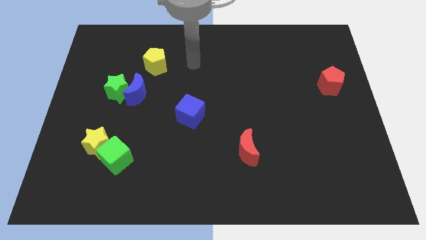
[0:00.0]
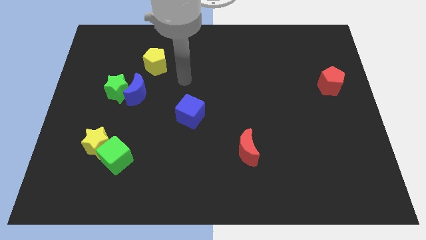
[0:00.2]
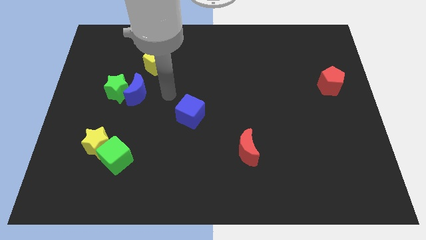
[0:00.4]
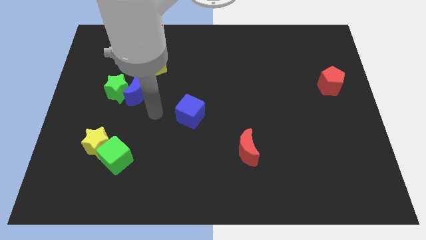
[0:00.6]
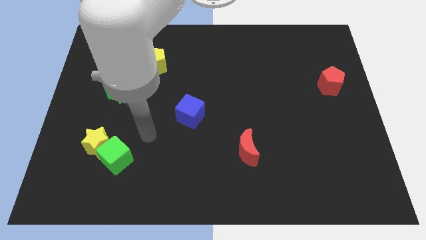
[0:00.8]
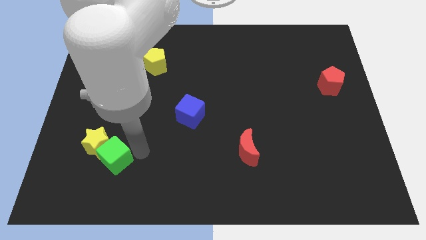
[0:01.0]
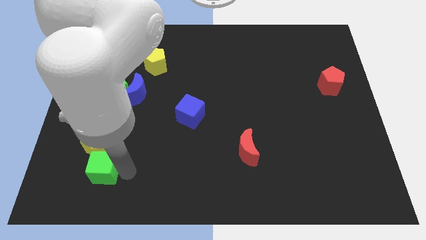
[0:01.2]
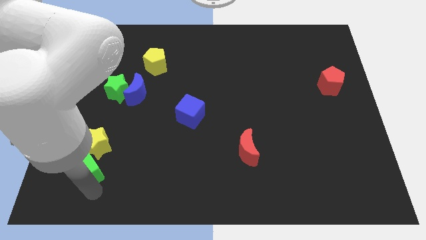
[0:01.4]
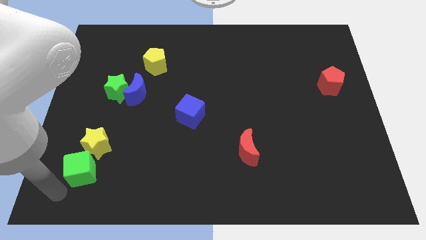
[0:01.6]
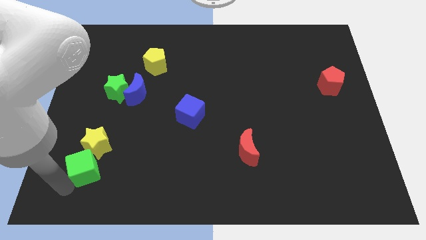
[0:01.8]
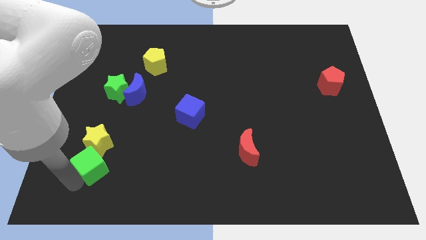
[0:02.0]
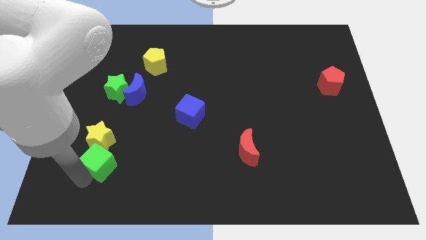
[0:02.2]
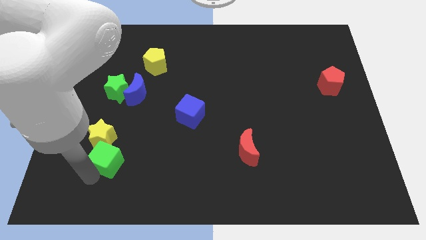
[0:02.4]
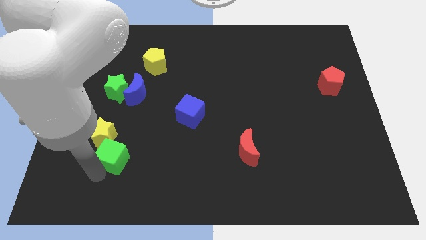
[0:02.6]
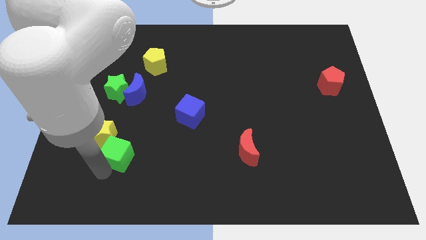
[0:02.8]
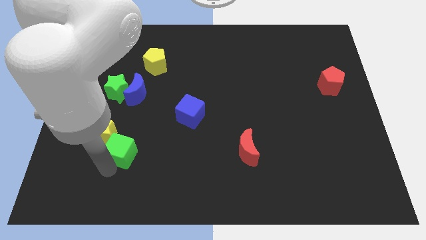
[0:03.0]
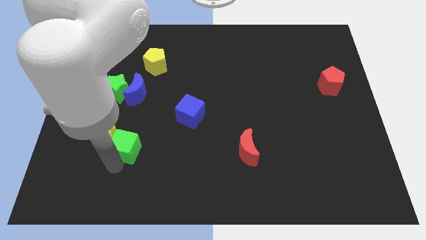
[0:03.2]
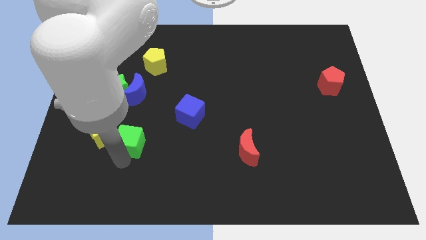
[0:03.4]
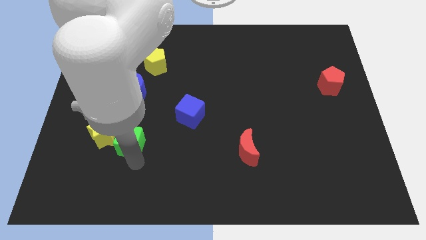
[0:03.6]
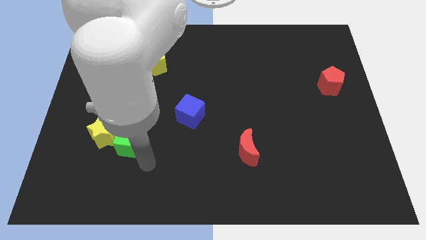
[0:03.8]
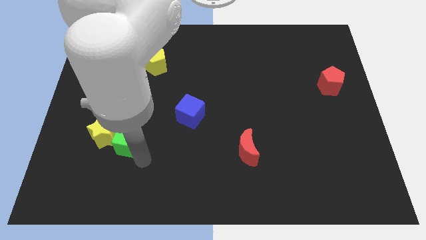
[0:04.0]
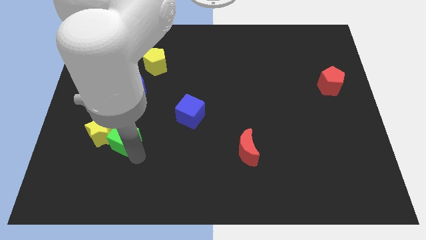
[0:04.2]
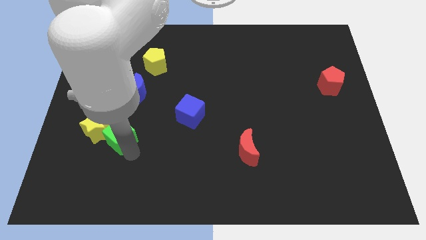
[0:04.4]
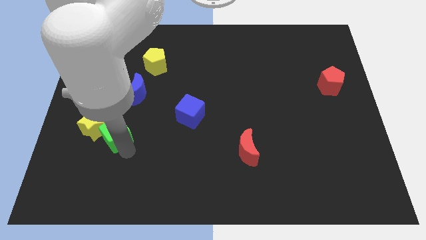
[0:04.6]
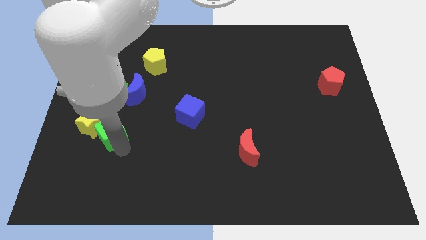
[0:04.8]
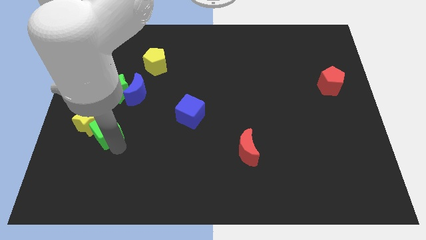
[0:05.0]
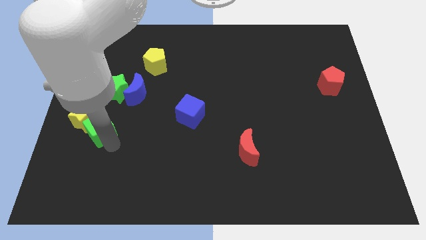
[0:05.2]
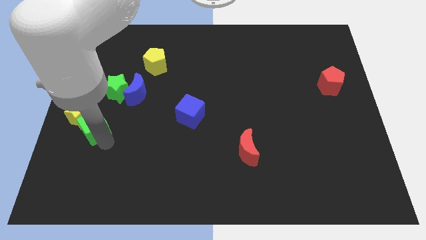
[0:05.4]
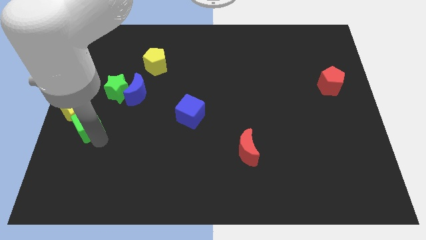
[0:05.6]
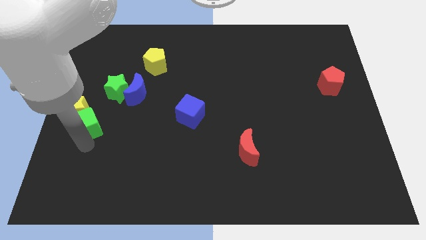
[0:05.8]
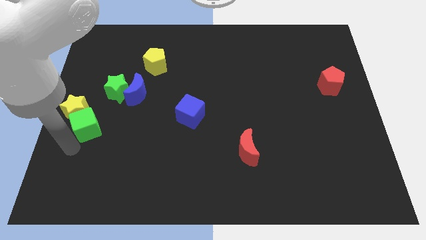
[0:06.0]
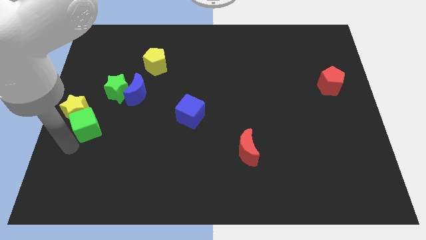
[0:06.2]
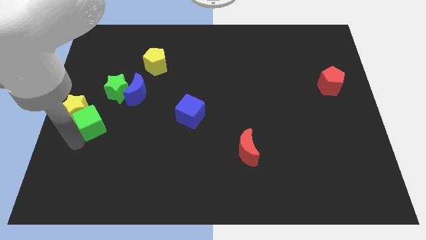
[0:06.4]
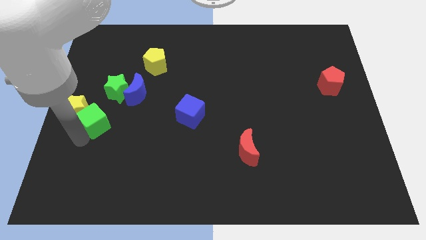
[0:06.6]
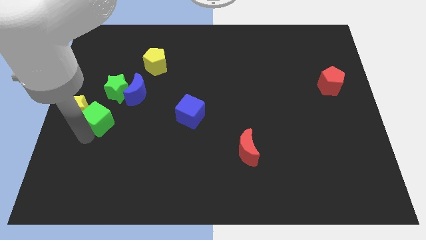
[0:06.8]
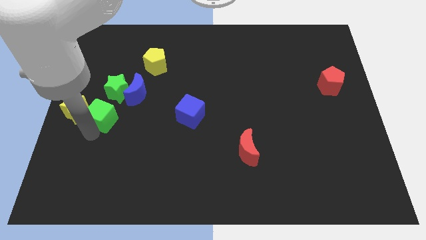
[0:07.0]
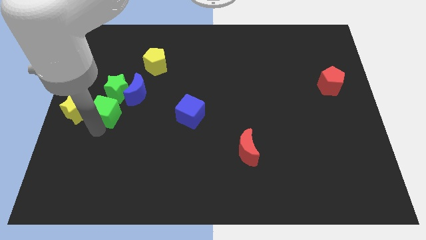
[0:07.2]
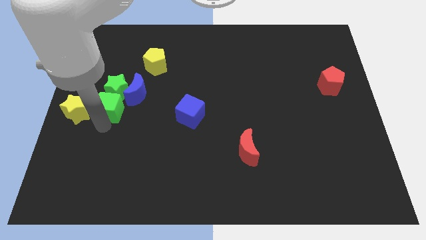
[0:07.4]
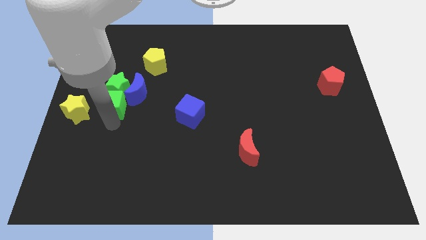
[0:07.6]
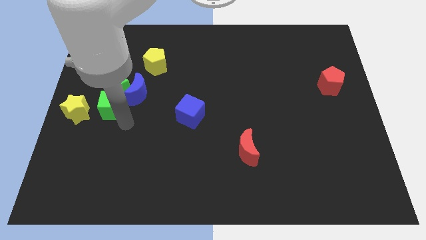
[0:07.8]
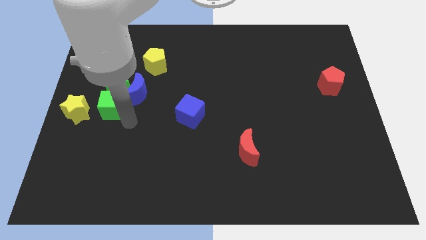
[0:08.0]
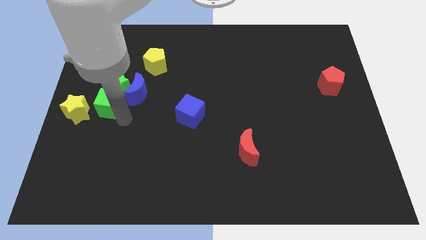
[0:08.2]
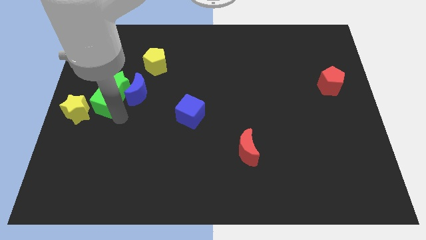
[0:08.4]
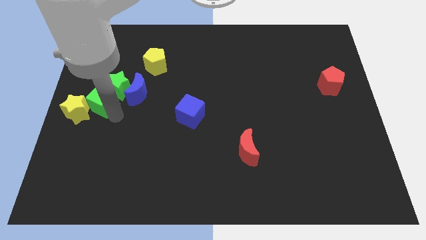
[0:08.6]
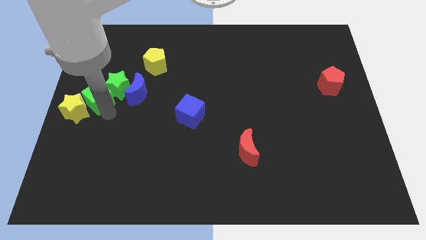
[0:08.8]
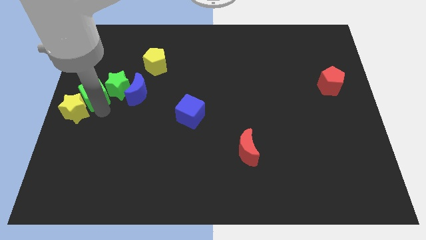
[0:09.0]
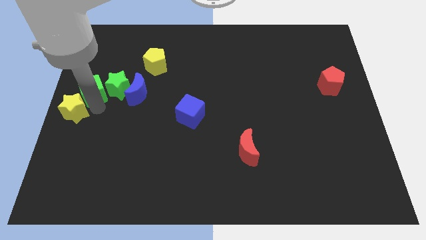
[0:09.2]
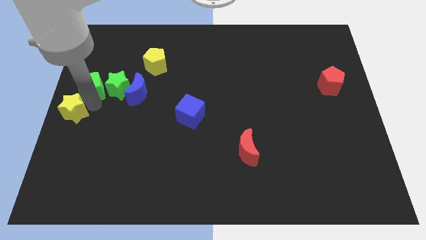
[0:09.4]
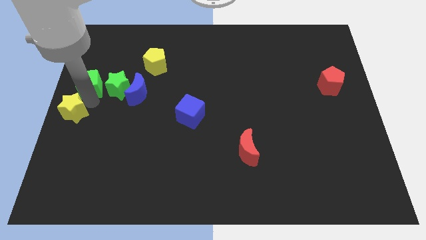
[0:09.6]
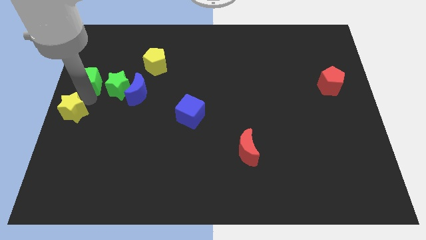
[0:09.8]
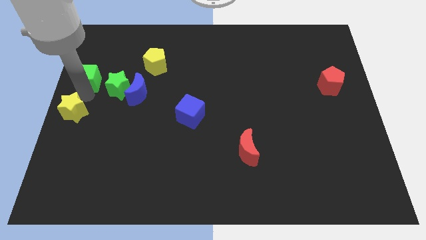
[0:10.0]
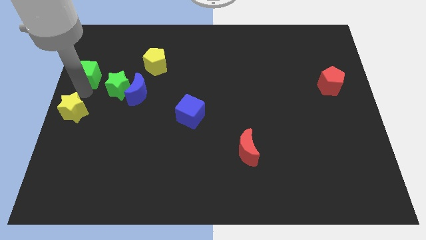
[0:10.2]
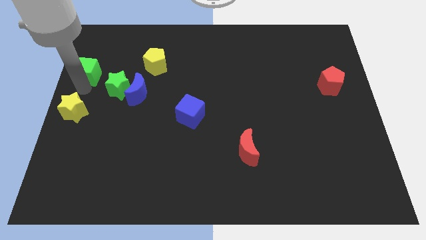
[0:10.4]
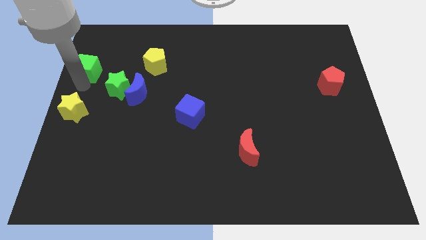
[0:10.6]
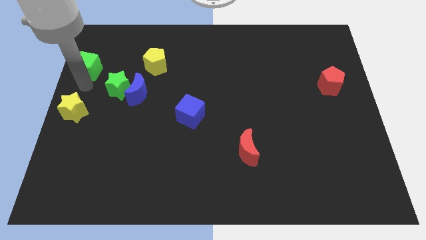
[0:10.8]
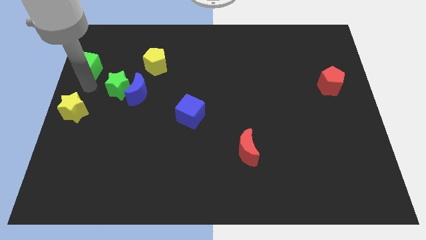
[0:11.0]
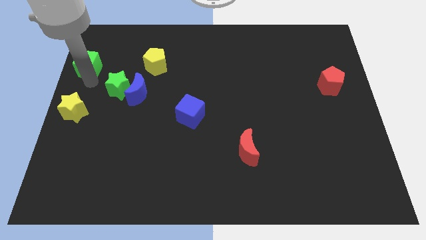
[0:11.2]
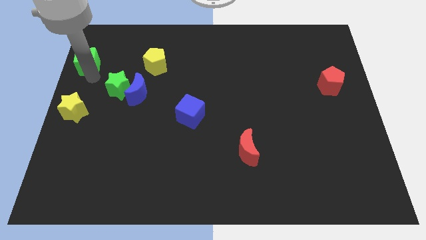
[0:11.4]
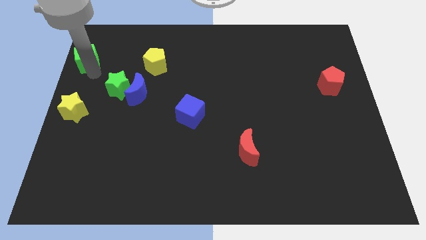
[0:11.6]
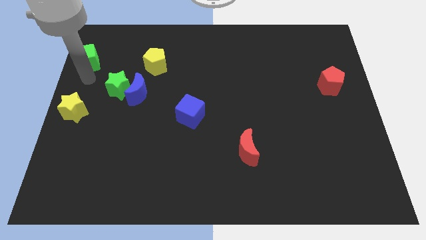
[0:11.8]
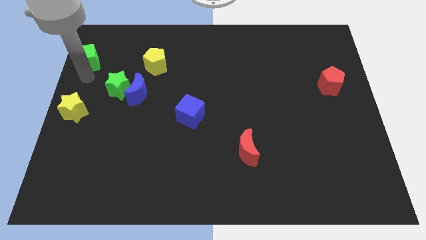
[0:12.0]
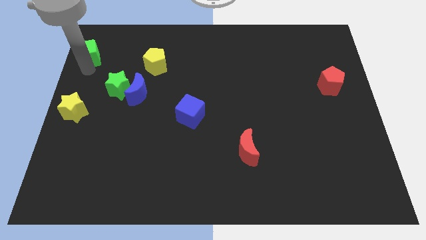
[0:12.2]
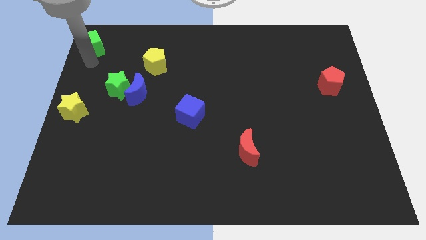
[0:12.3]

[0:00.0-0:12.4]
slide the green cube to the top left
